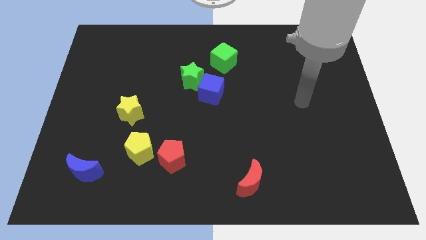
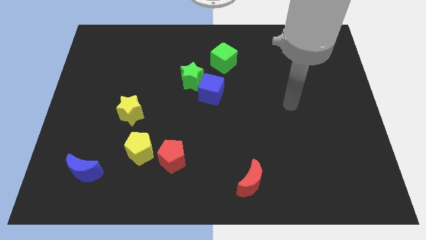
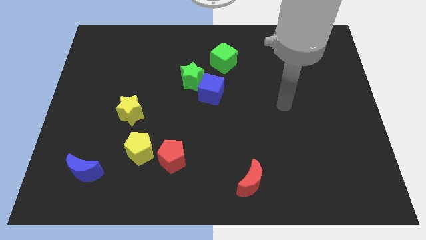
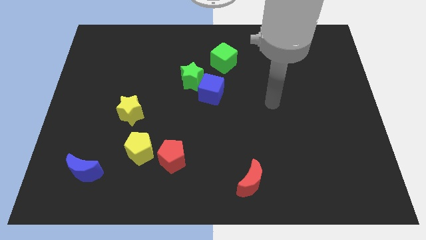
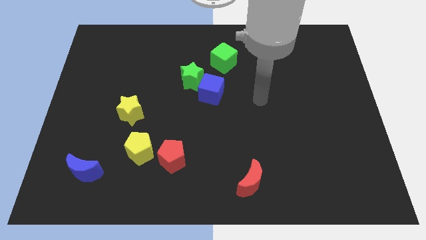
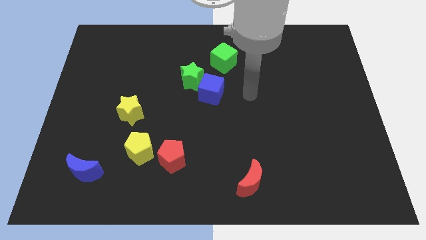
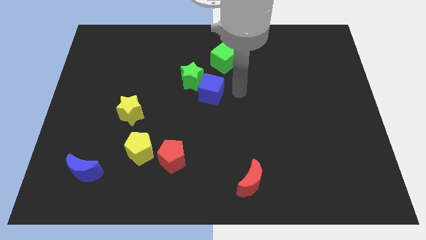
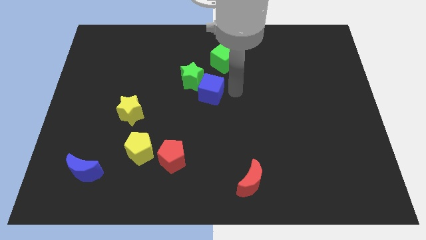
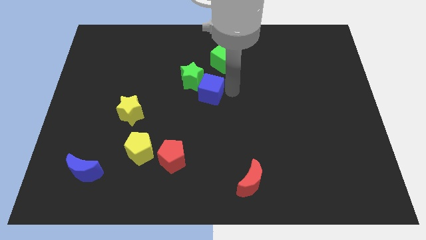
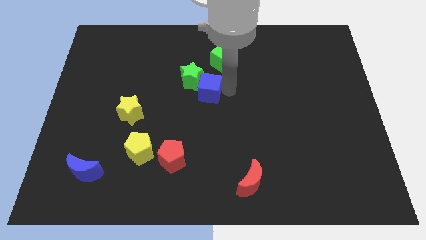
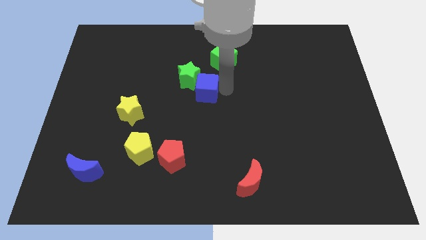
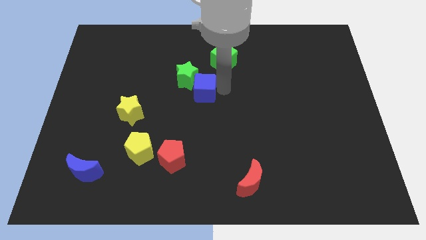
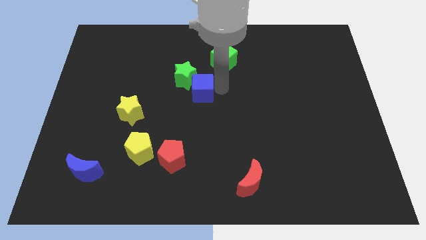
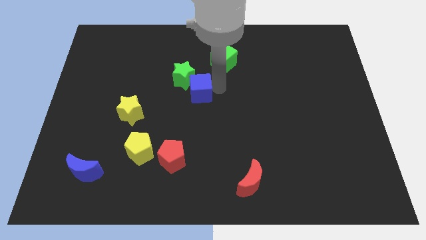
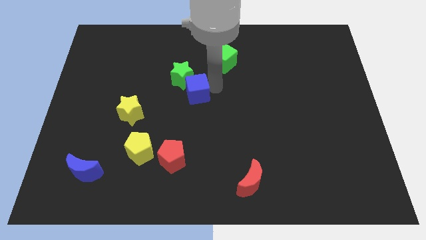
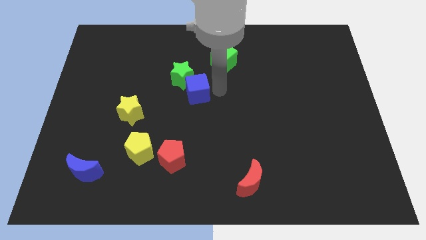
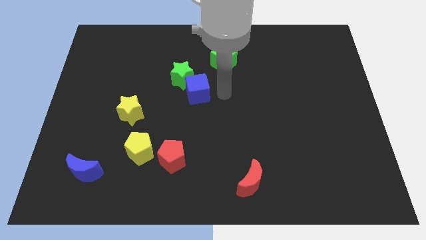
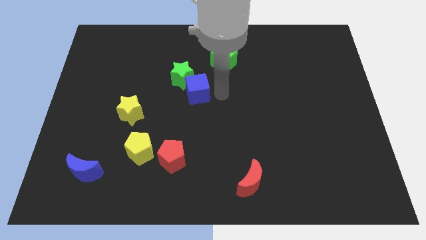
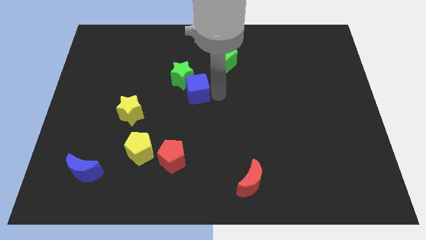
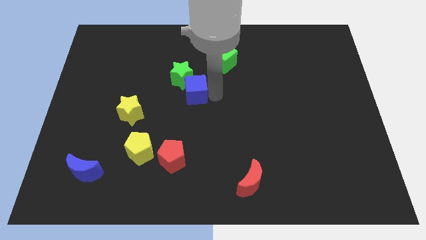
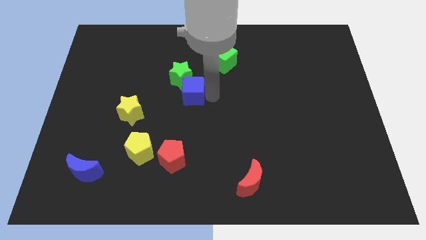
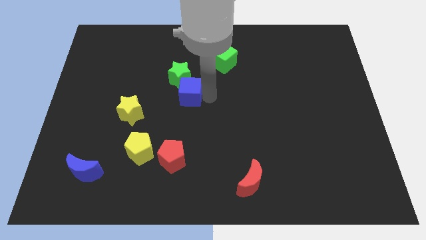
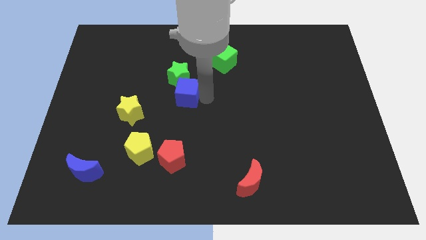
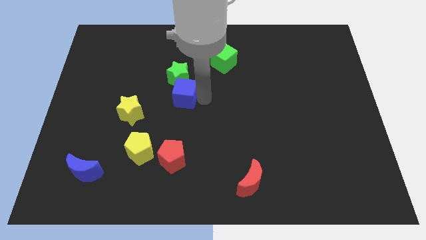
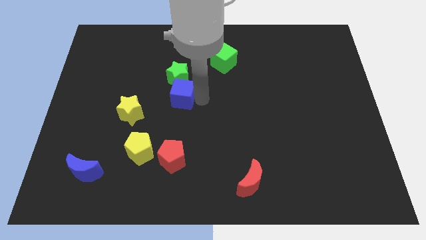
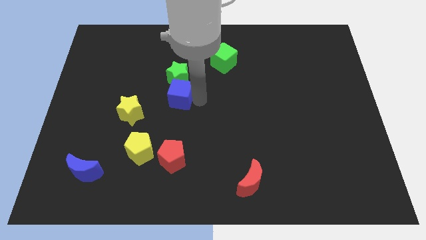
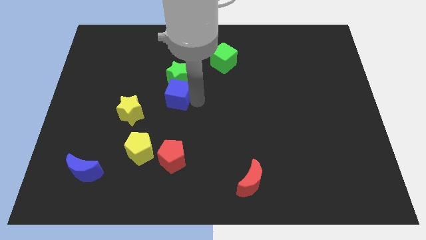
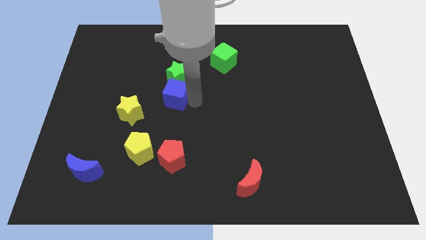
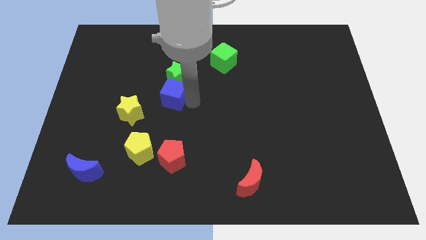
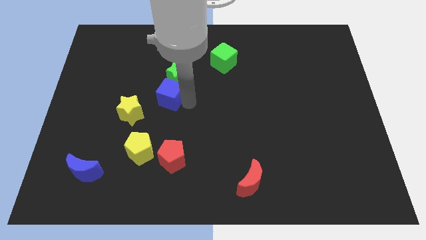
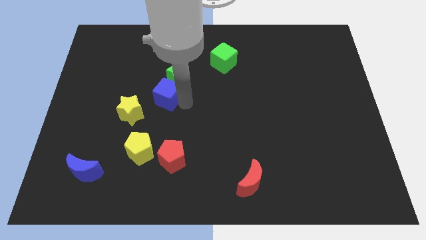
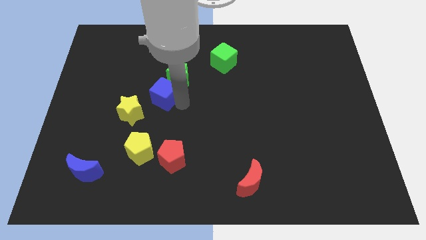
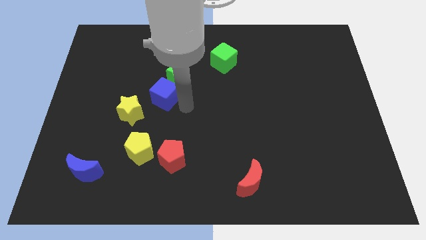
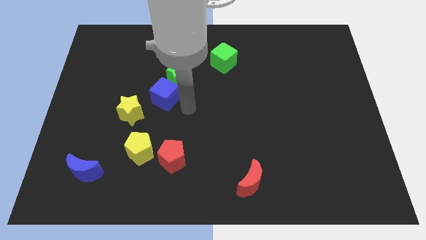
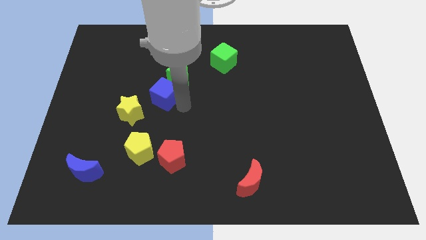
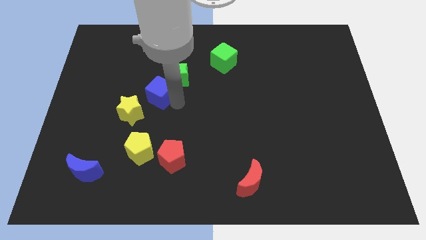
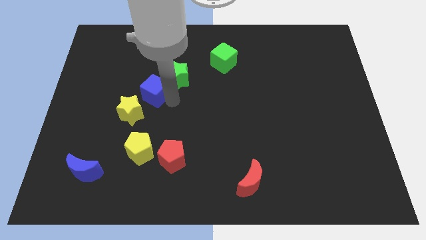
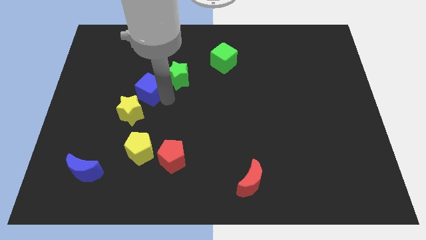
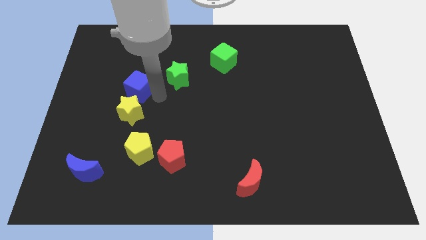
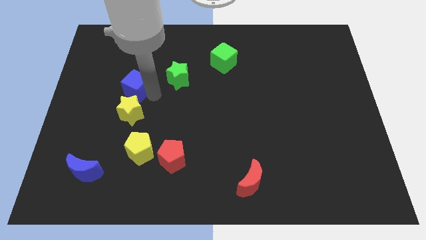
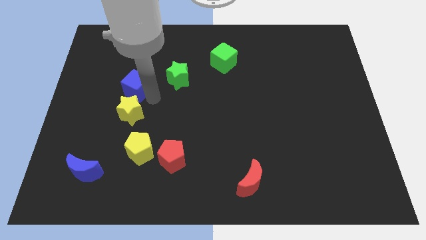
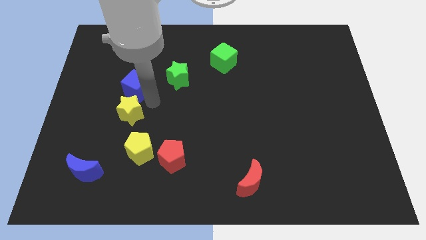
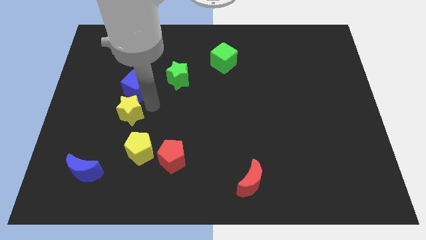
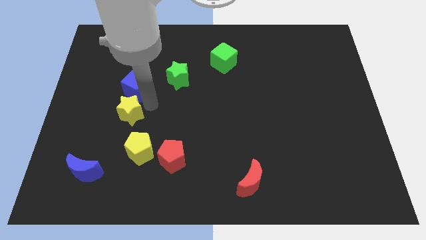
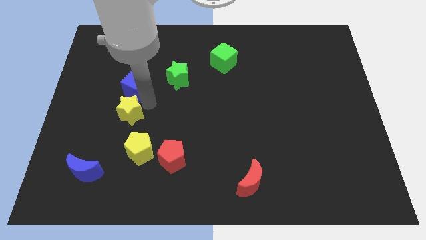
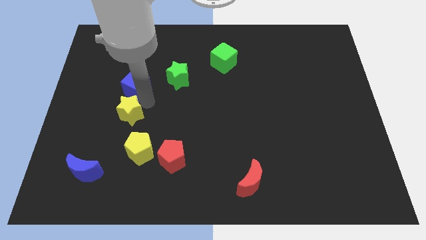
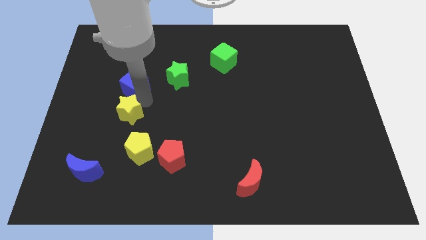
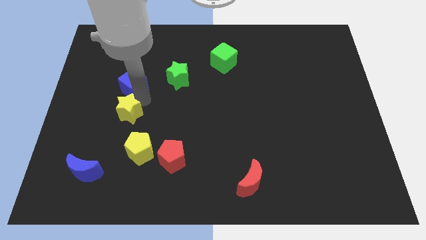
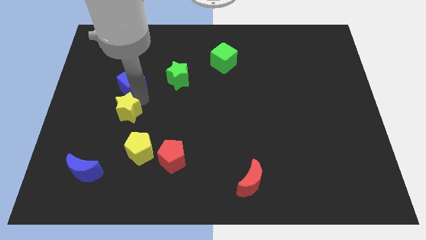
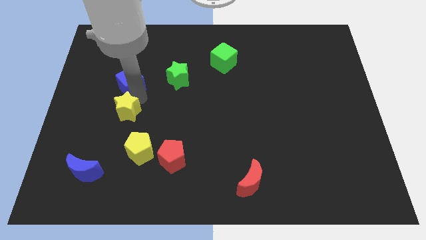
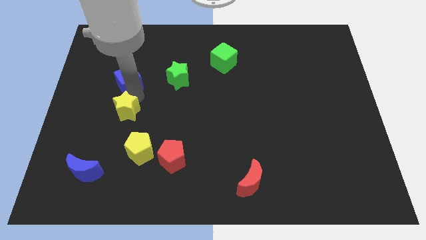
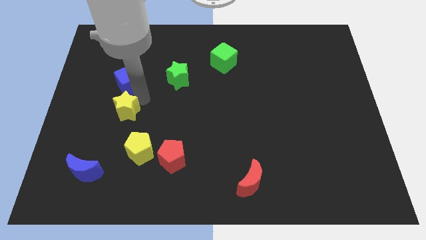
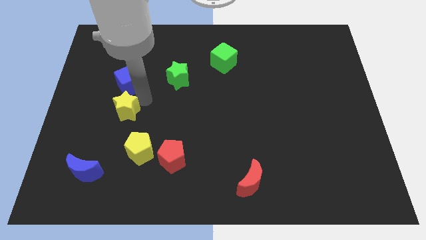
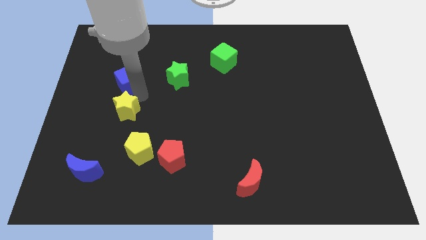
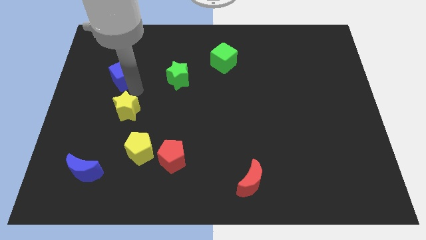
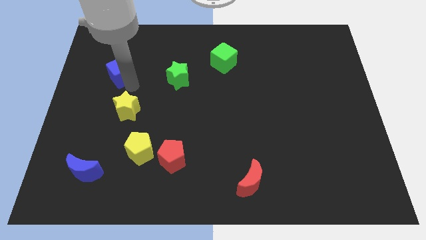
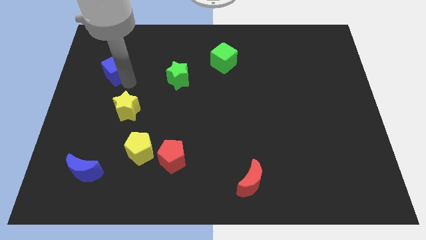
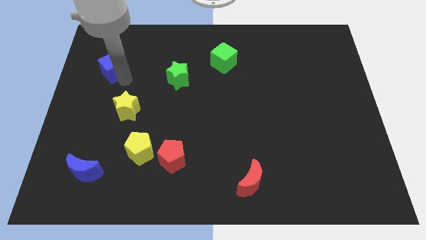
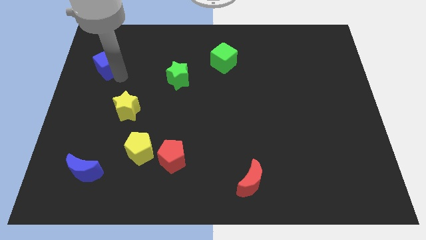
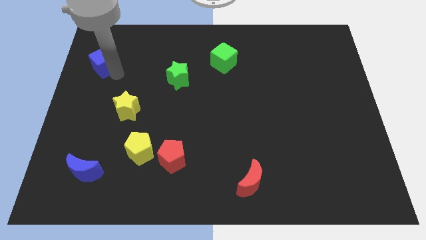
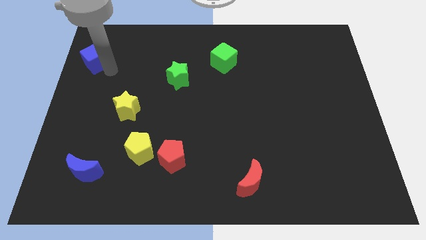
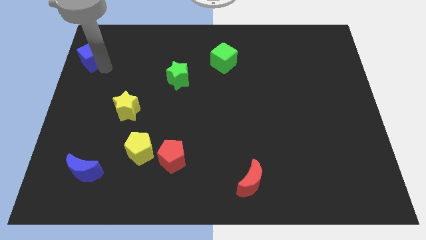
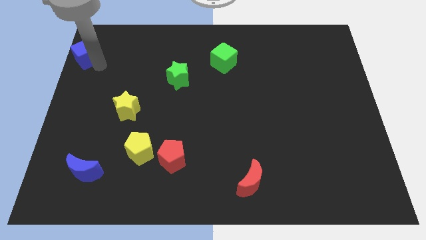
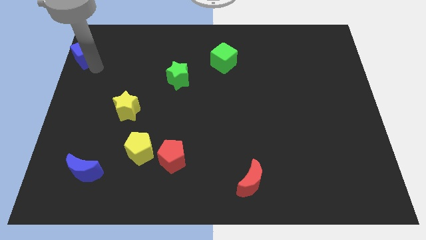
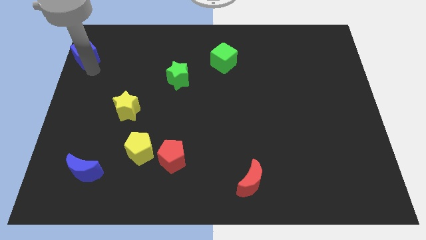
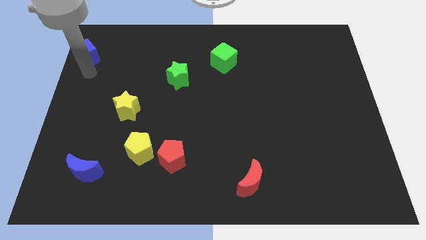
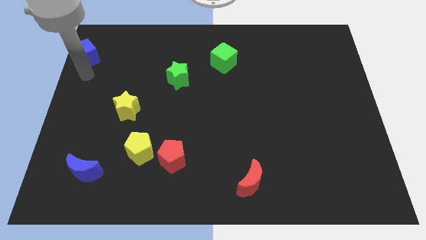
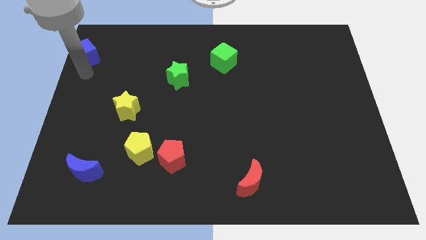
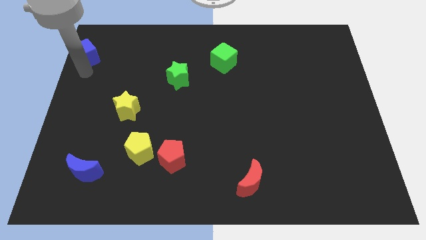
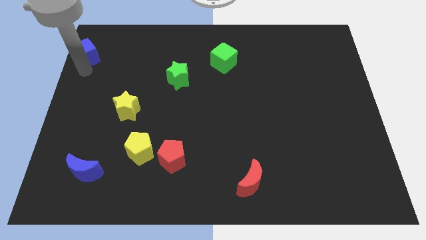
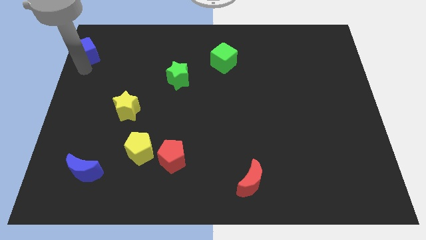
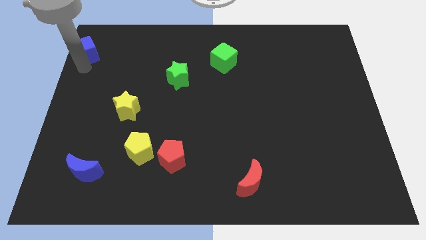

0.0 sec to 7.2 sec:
put the blue cube to the top left

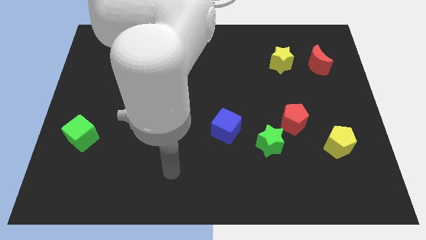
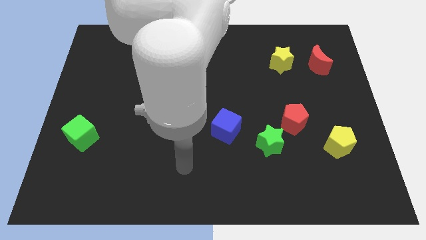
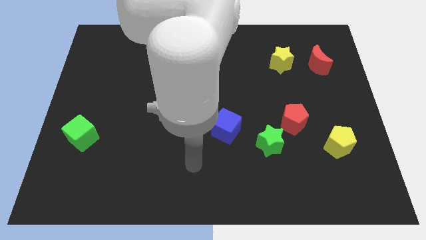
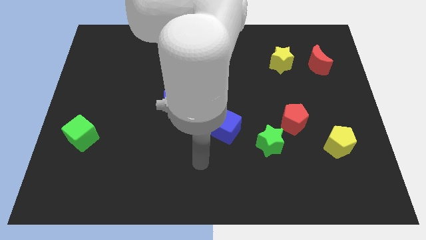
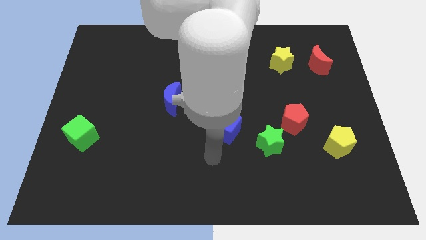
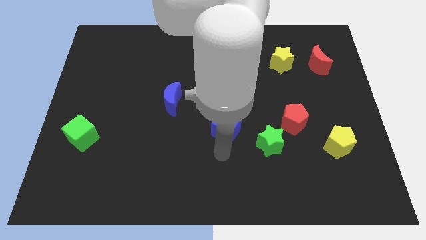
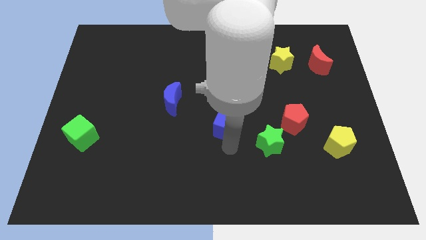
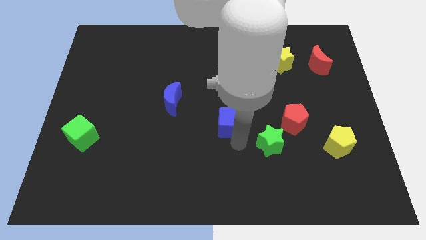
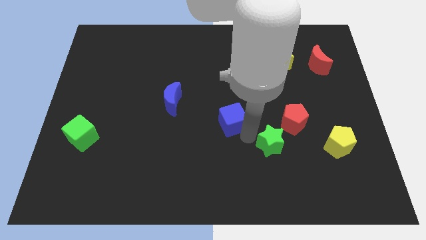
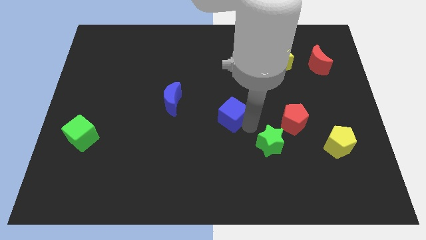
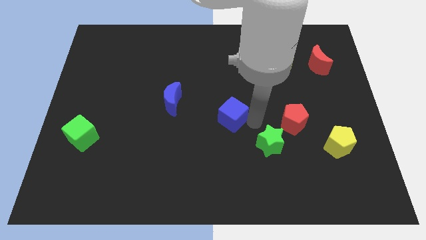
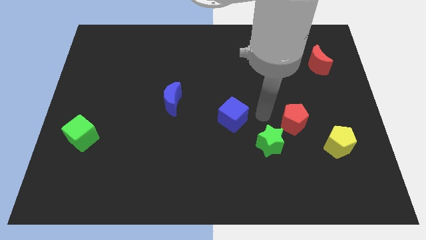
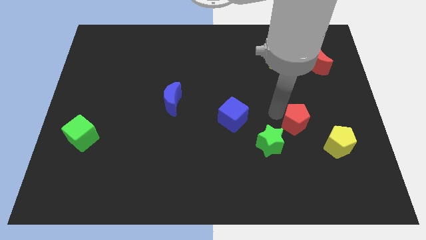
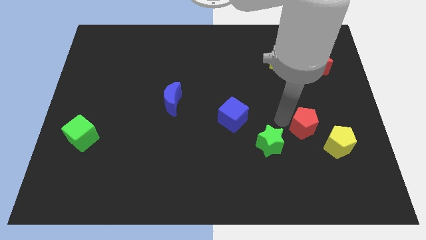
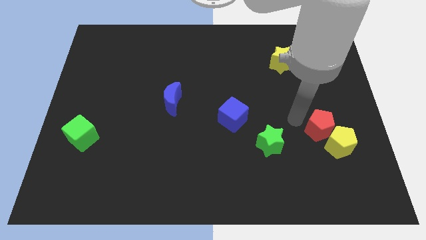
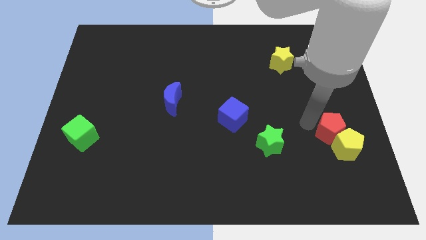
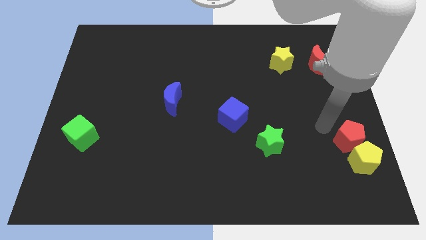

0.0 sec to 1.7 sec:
move the yellow pentagon to the lower right corner
